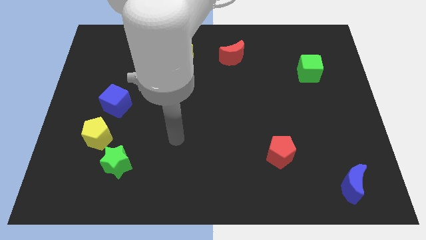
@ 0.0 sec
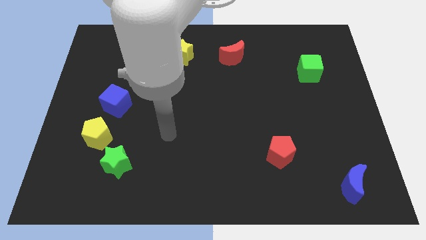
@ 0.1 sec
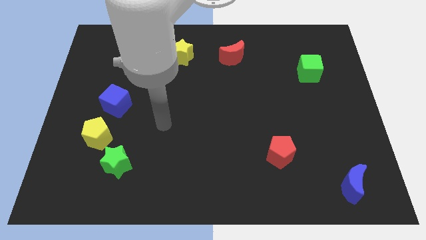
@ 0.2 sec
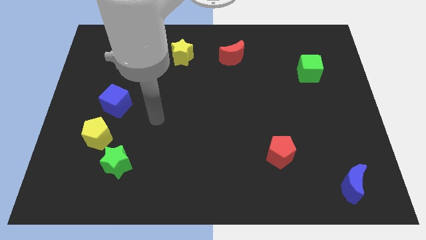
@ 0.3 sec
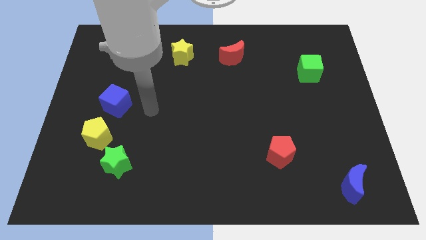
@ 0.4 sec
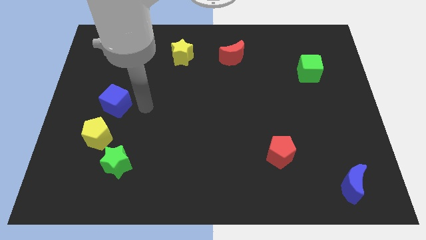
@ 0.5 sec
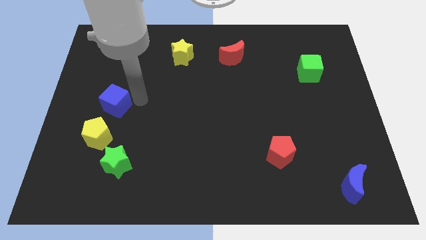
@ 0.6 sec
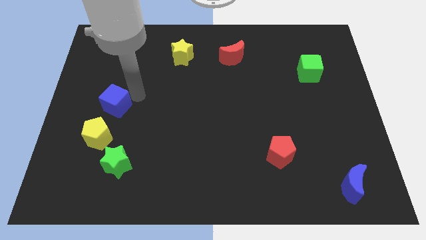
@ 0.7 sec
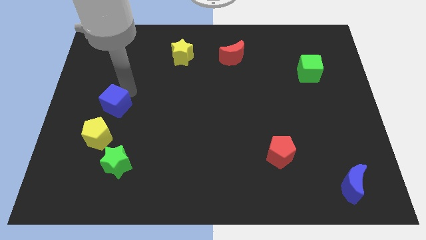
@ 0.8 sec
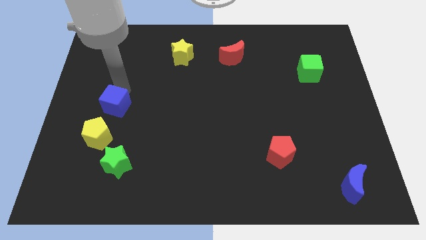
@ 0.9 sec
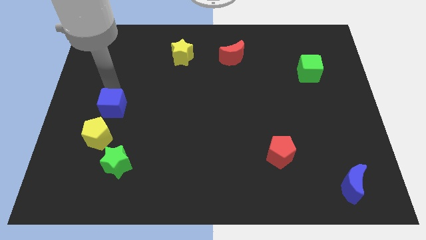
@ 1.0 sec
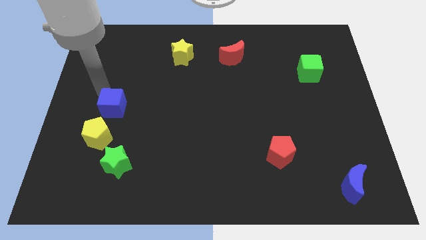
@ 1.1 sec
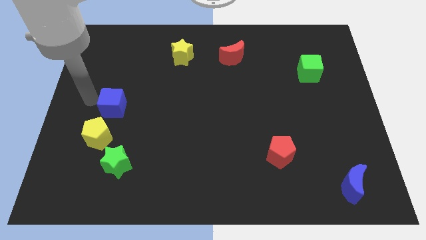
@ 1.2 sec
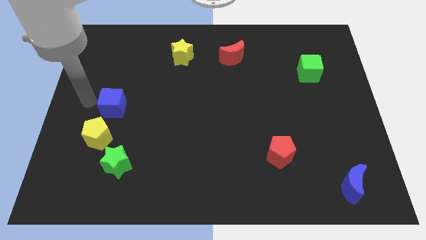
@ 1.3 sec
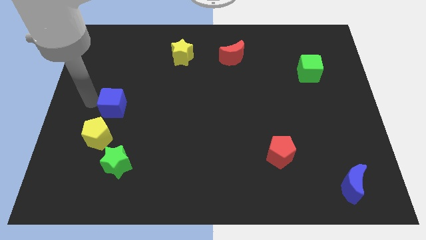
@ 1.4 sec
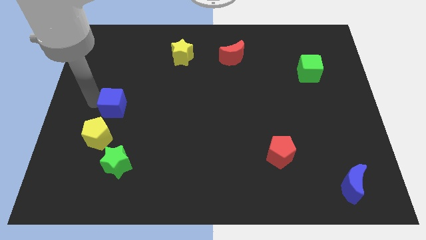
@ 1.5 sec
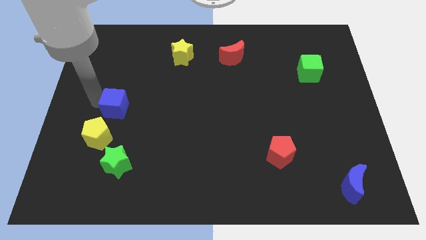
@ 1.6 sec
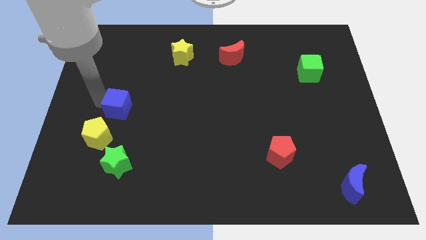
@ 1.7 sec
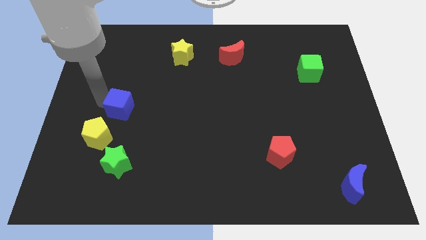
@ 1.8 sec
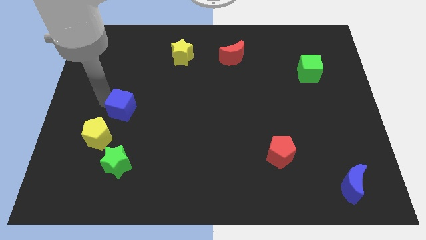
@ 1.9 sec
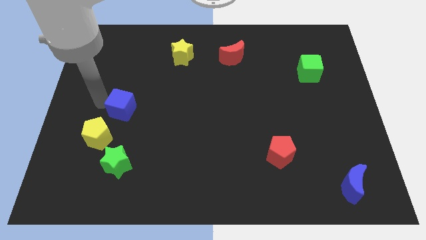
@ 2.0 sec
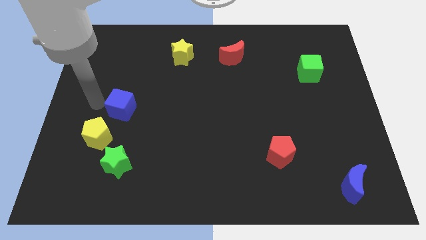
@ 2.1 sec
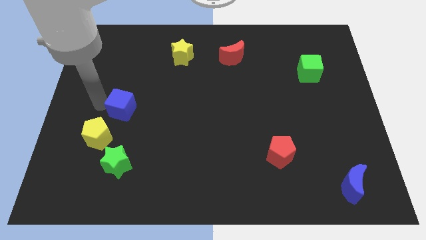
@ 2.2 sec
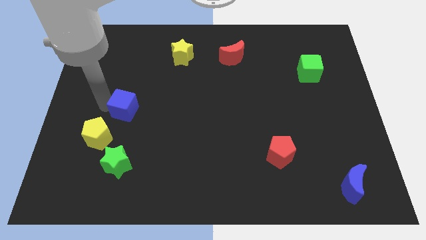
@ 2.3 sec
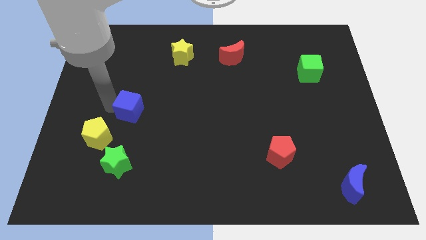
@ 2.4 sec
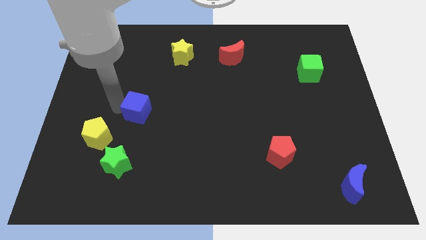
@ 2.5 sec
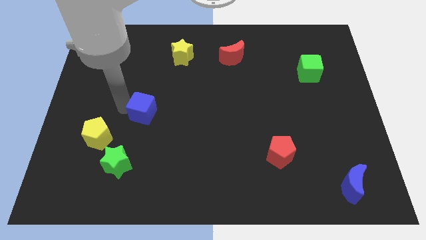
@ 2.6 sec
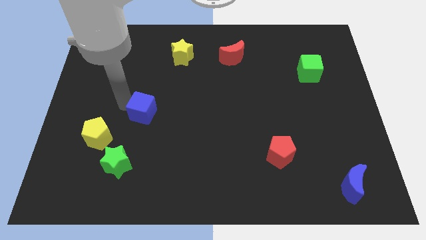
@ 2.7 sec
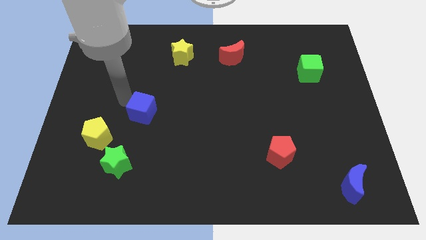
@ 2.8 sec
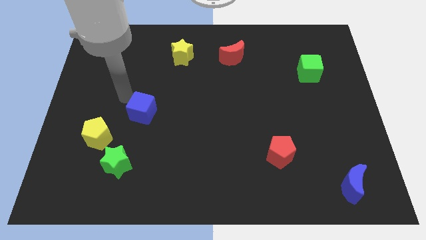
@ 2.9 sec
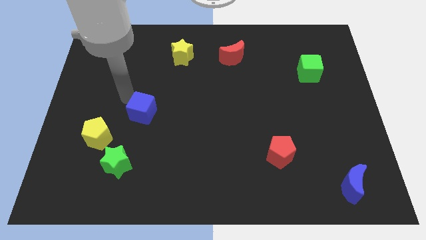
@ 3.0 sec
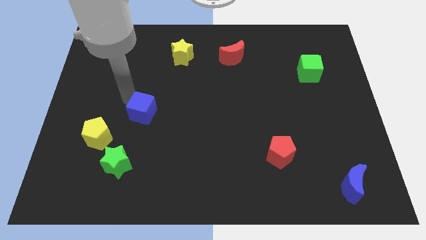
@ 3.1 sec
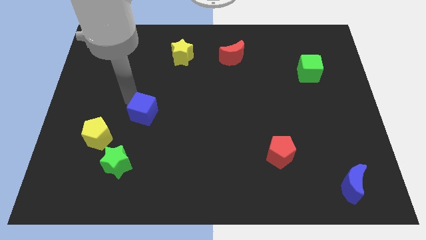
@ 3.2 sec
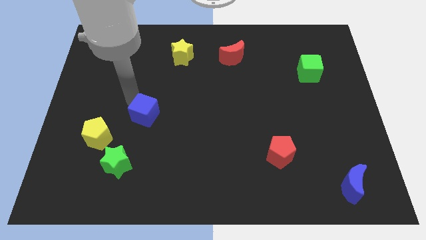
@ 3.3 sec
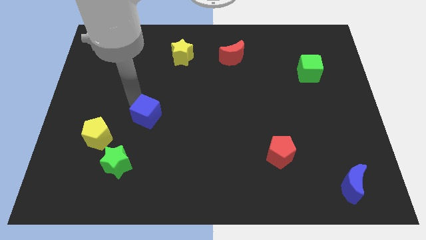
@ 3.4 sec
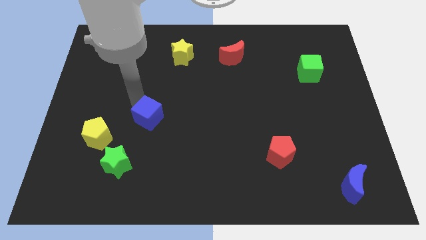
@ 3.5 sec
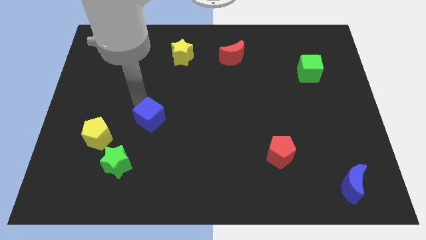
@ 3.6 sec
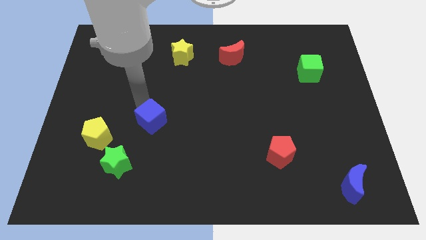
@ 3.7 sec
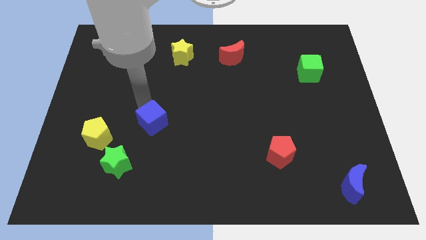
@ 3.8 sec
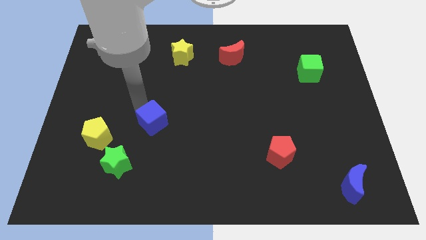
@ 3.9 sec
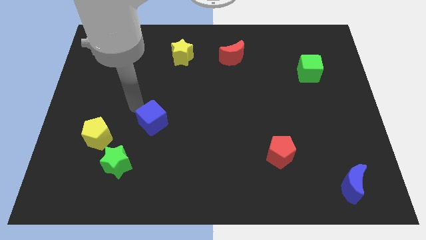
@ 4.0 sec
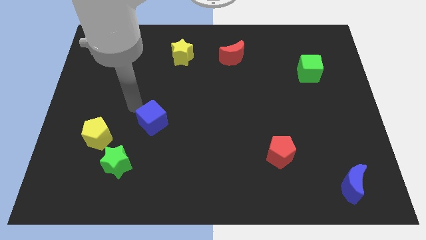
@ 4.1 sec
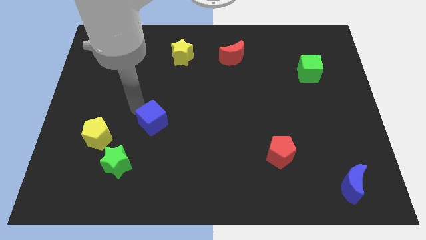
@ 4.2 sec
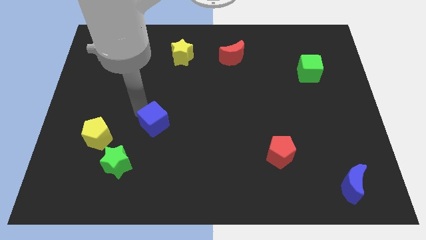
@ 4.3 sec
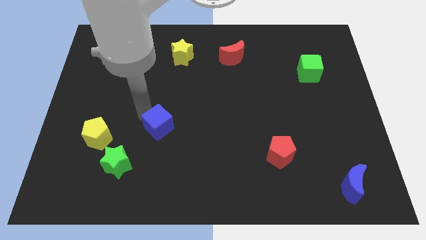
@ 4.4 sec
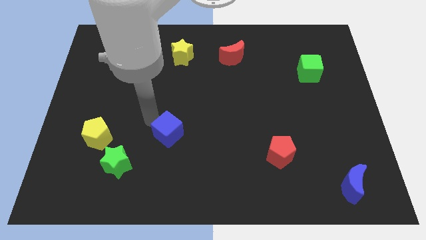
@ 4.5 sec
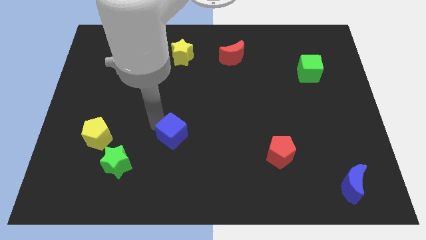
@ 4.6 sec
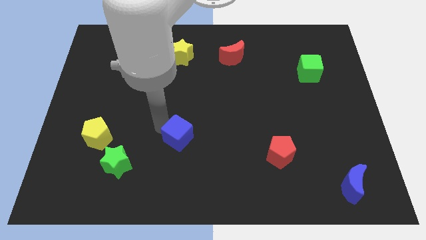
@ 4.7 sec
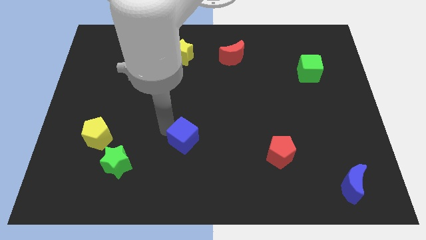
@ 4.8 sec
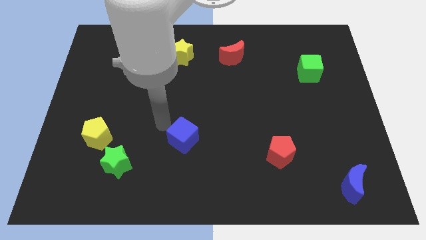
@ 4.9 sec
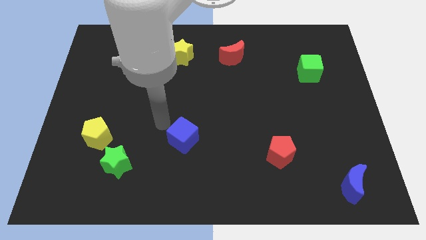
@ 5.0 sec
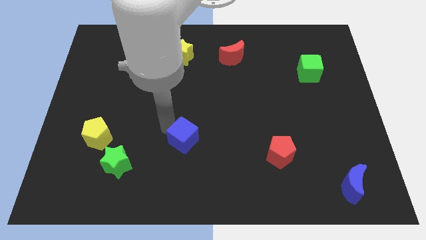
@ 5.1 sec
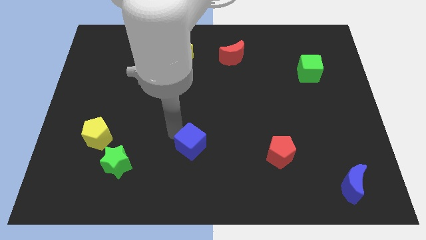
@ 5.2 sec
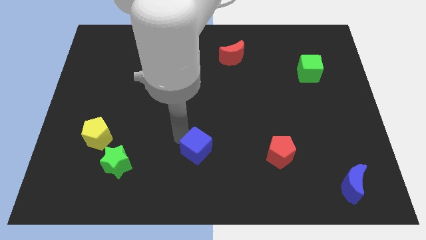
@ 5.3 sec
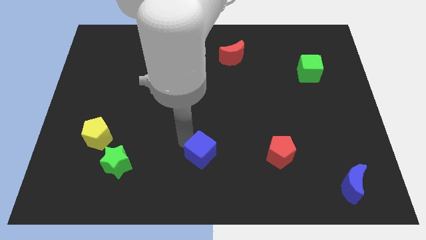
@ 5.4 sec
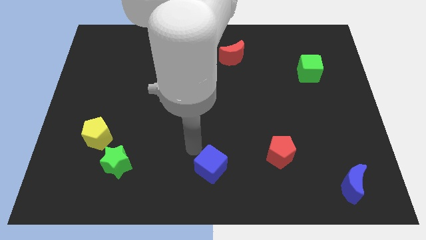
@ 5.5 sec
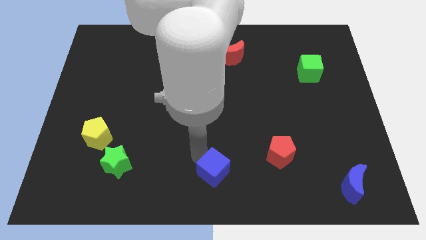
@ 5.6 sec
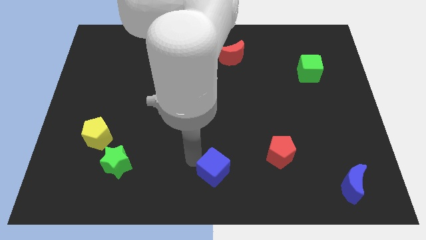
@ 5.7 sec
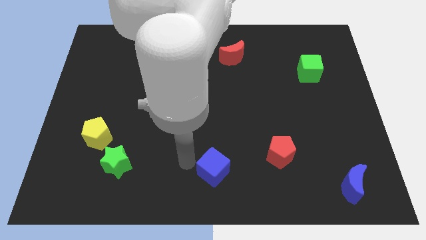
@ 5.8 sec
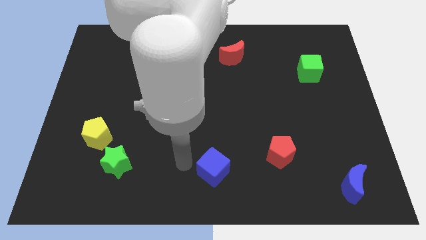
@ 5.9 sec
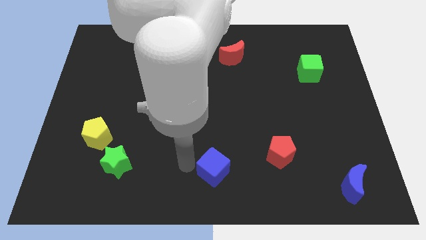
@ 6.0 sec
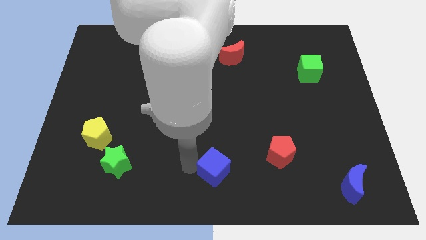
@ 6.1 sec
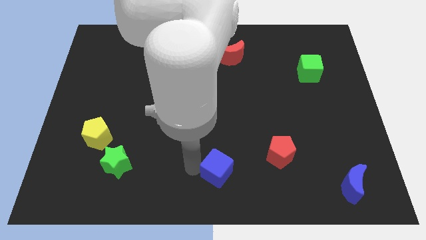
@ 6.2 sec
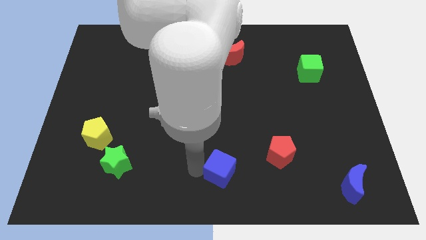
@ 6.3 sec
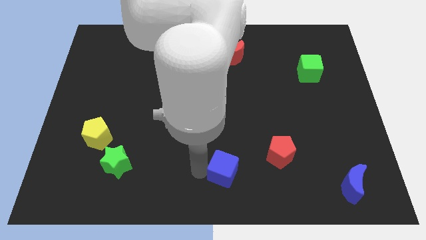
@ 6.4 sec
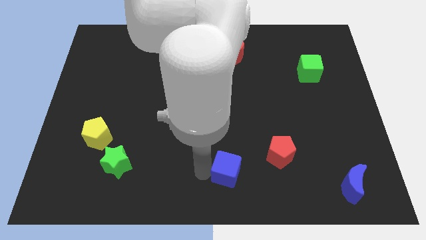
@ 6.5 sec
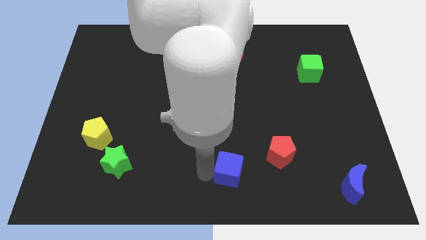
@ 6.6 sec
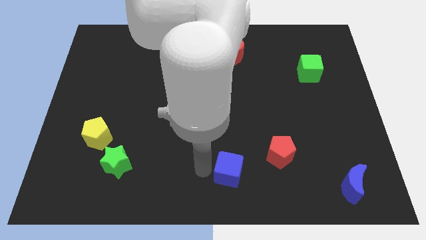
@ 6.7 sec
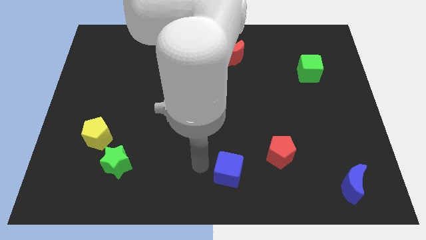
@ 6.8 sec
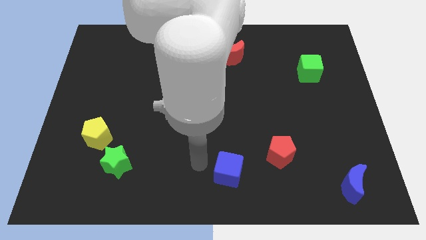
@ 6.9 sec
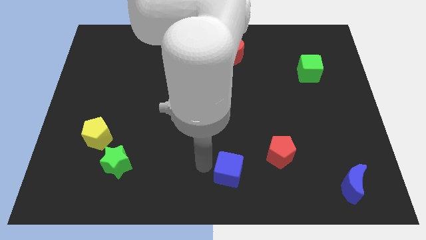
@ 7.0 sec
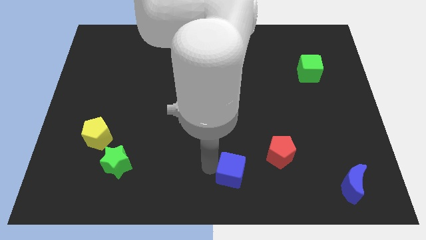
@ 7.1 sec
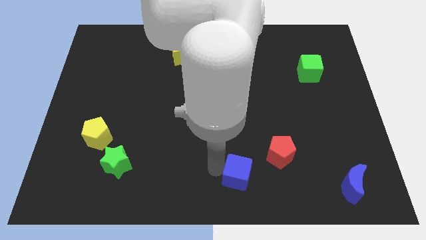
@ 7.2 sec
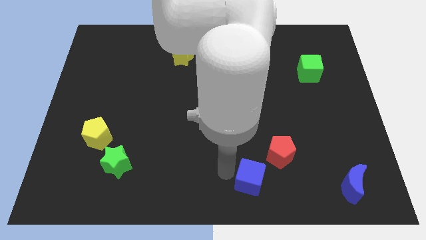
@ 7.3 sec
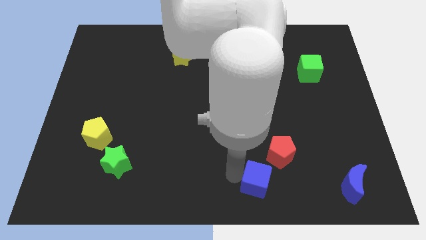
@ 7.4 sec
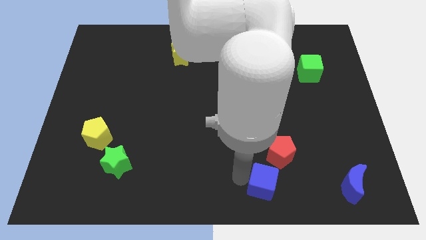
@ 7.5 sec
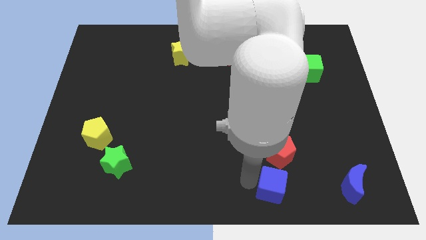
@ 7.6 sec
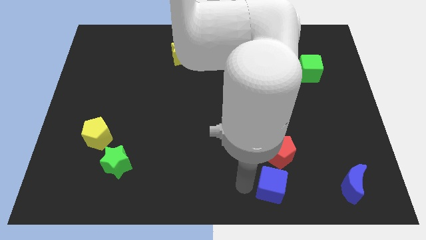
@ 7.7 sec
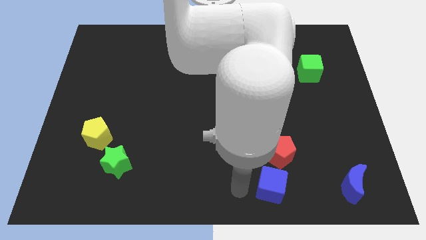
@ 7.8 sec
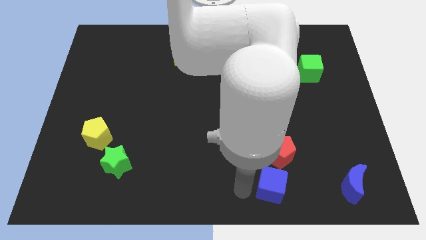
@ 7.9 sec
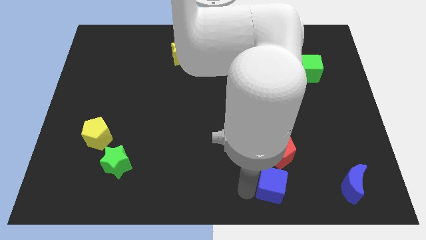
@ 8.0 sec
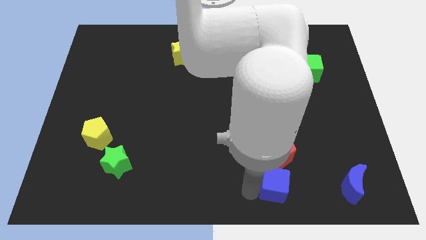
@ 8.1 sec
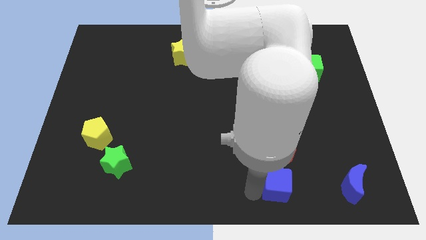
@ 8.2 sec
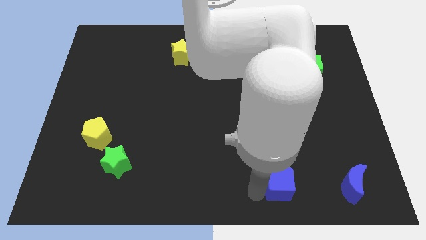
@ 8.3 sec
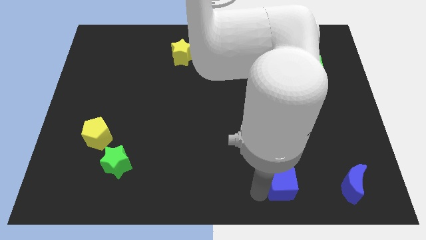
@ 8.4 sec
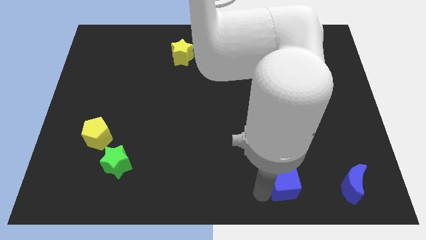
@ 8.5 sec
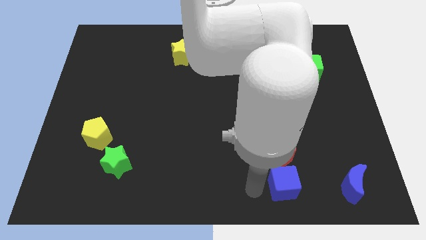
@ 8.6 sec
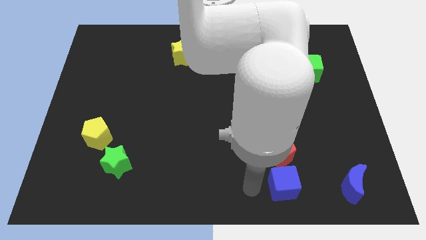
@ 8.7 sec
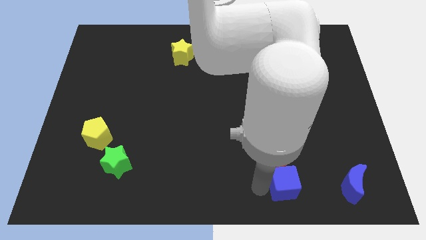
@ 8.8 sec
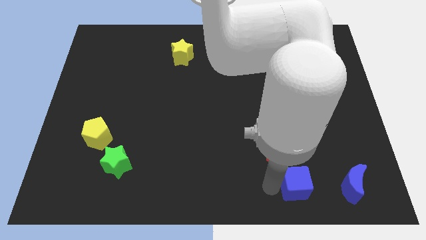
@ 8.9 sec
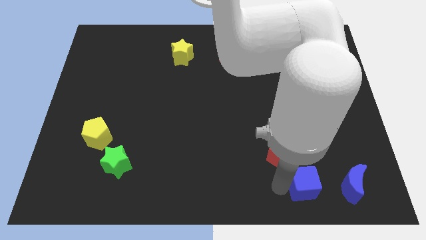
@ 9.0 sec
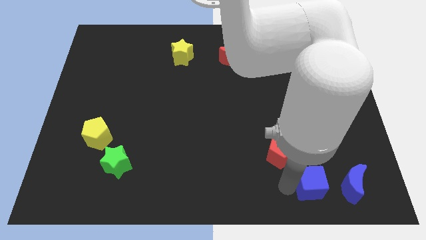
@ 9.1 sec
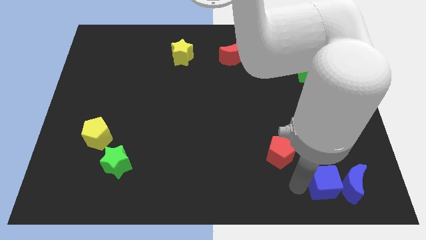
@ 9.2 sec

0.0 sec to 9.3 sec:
move the blue cube next to the blue moon
